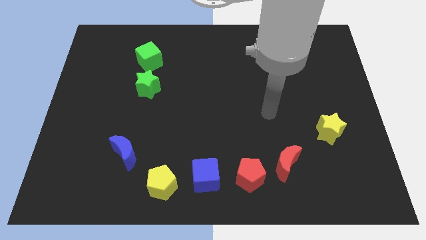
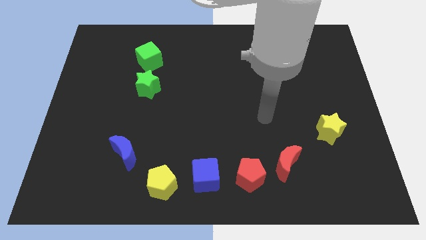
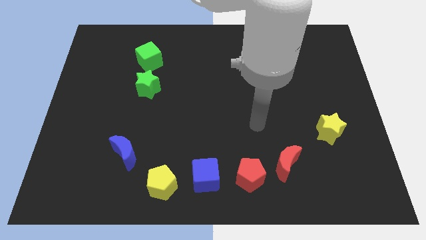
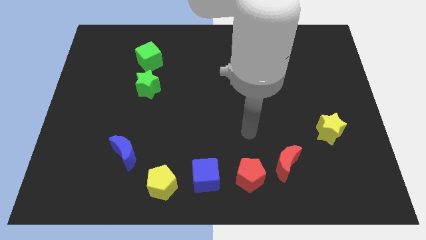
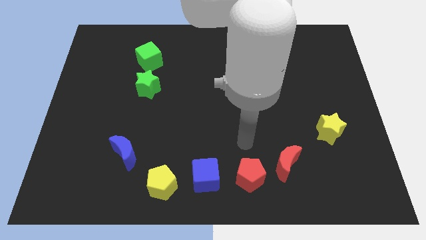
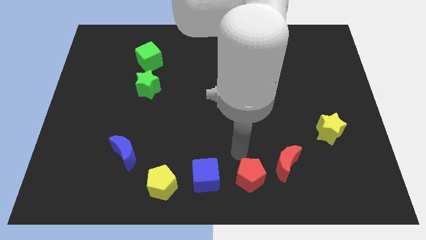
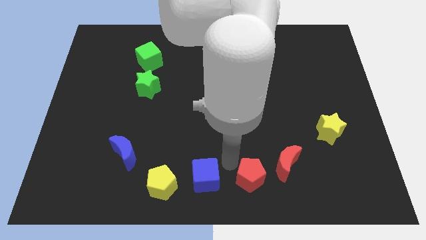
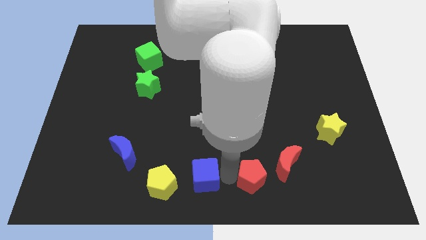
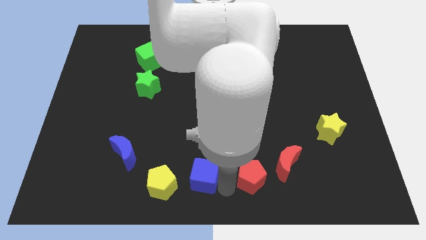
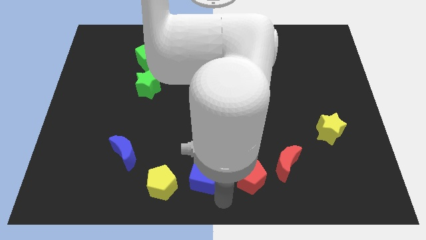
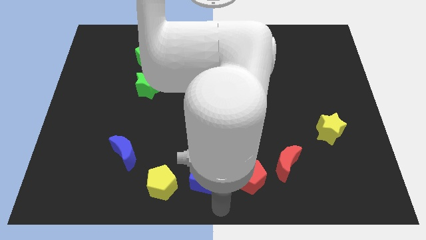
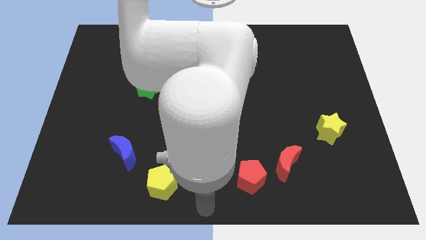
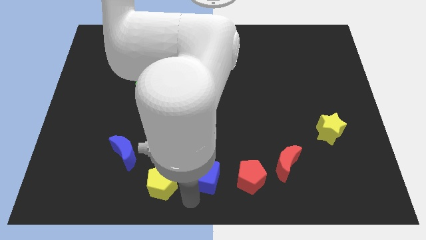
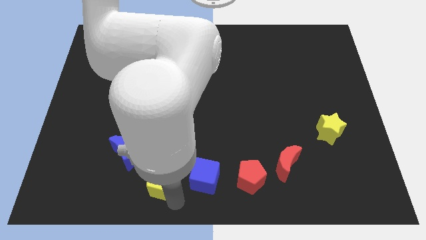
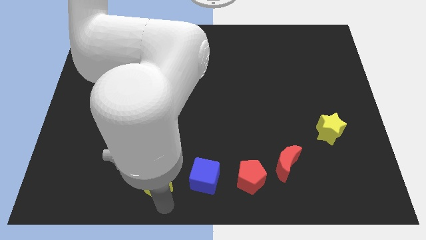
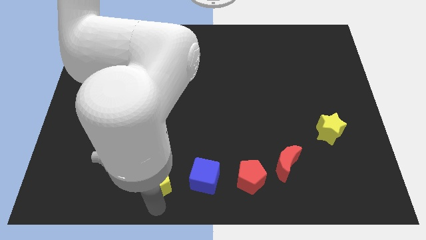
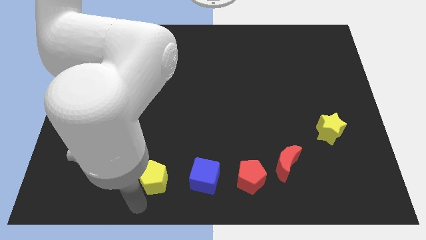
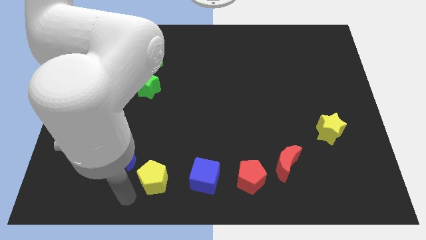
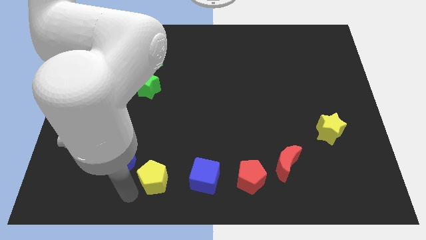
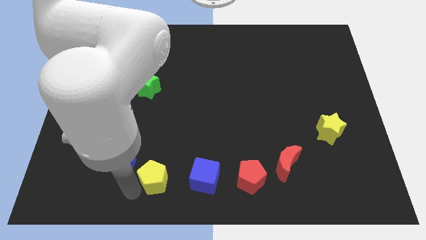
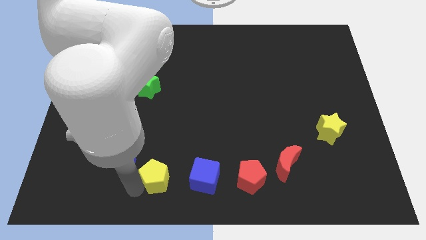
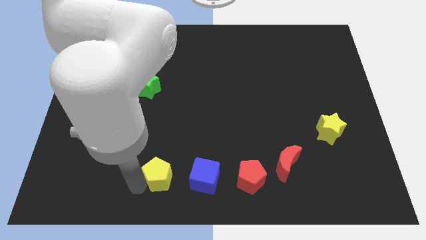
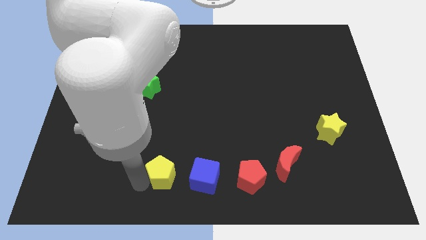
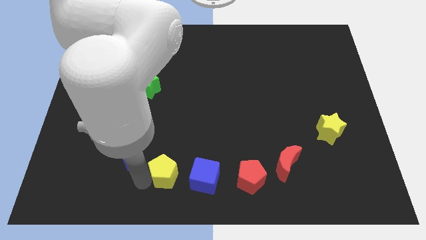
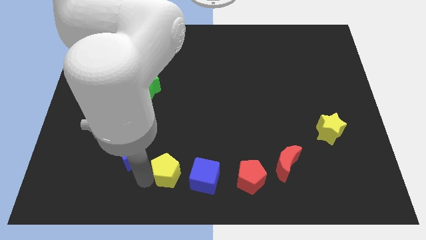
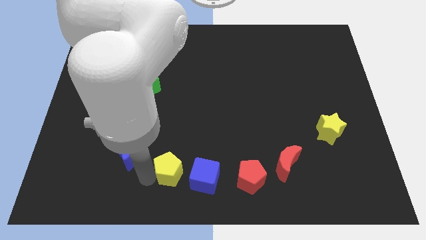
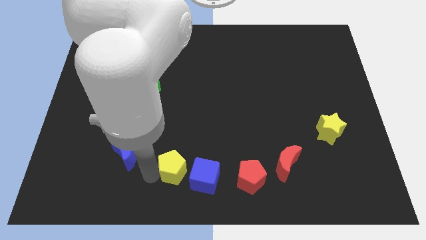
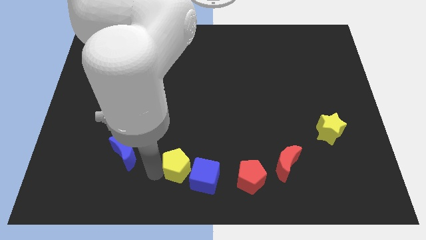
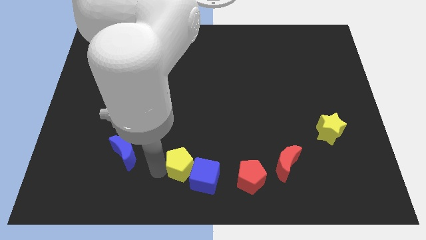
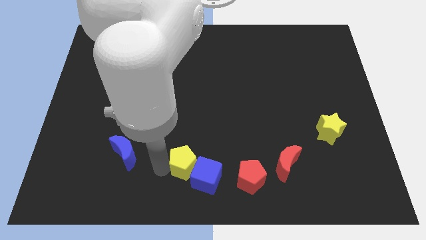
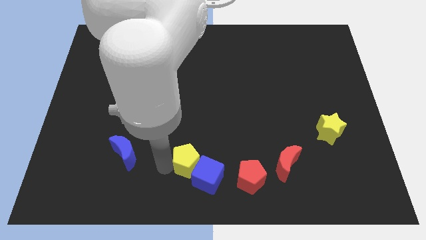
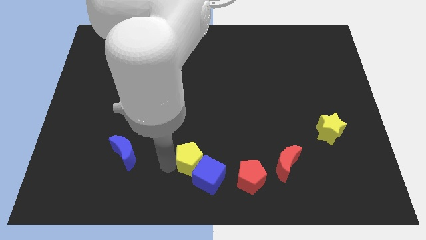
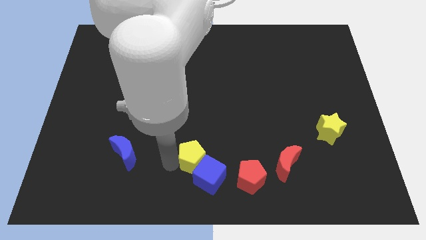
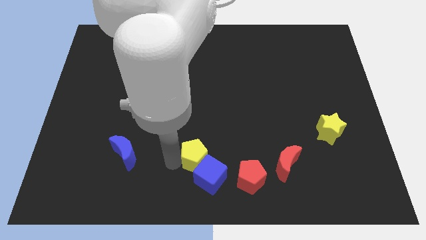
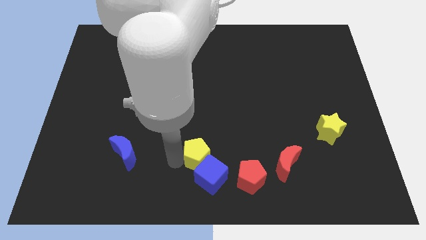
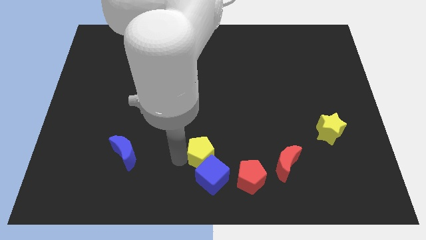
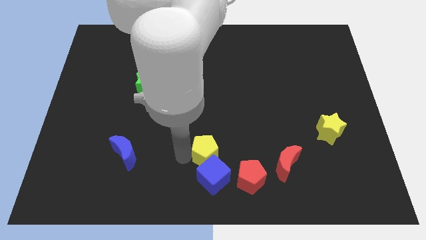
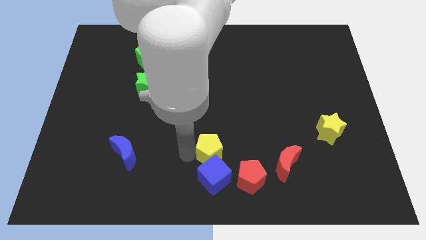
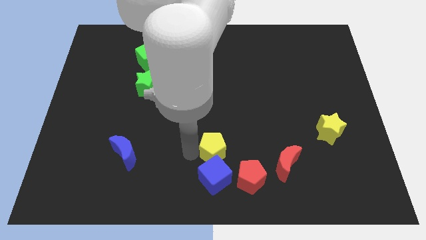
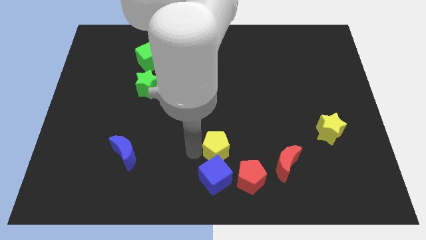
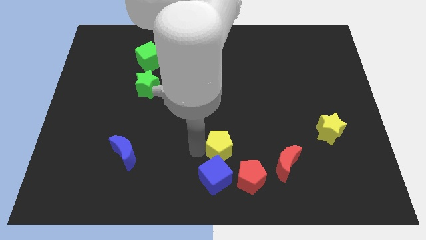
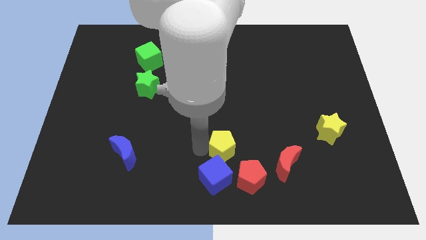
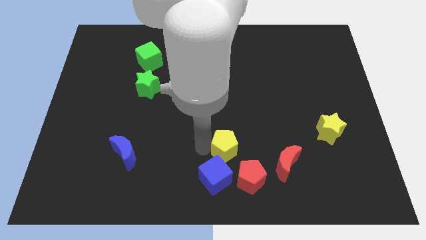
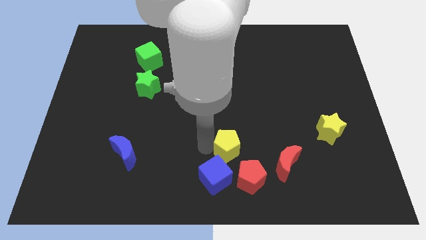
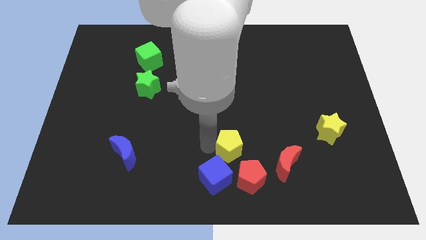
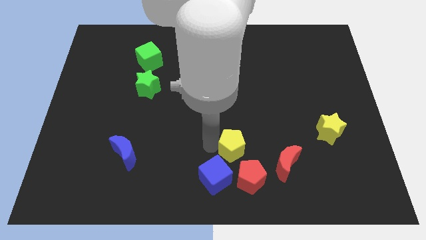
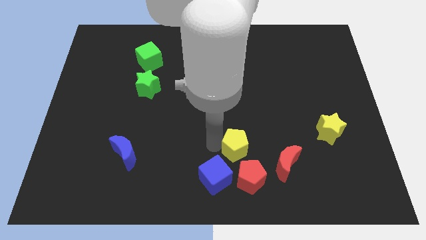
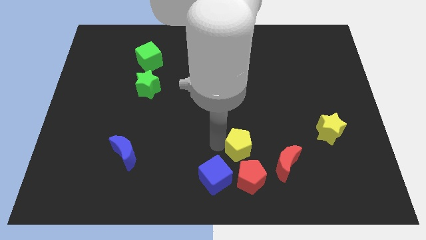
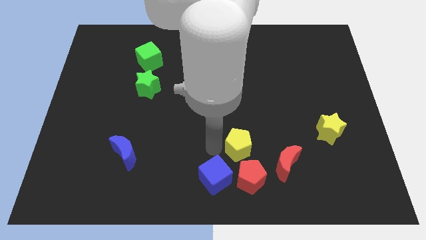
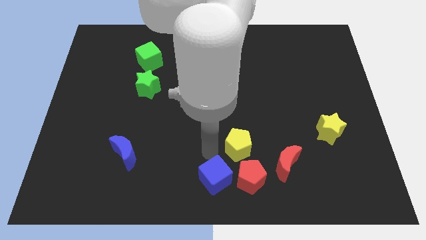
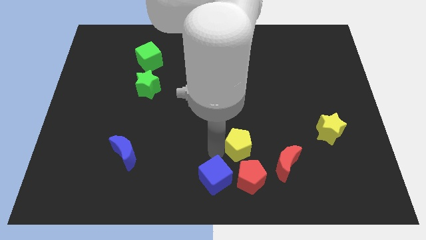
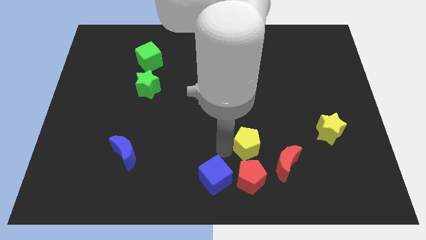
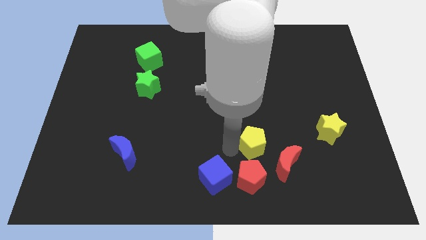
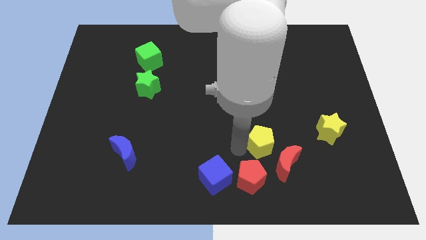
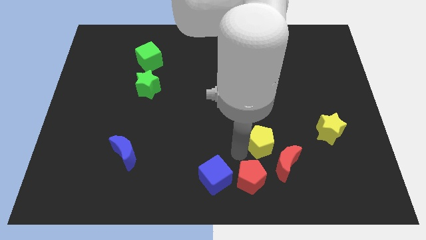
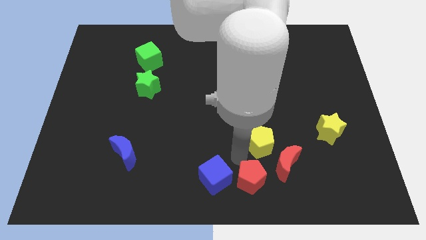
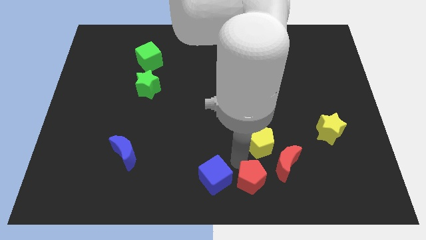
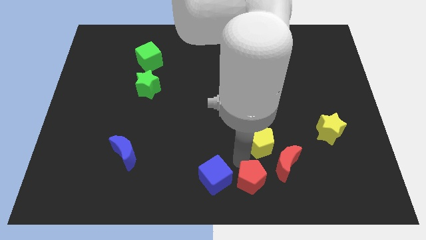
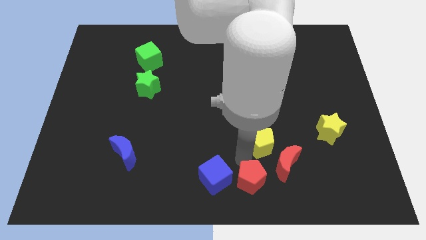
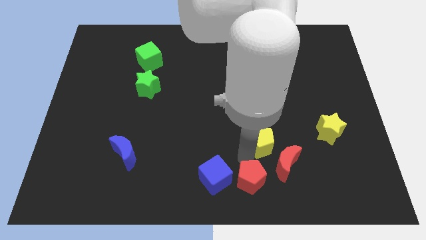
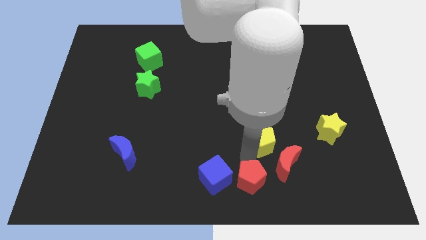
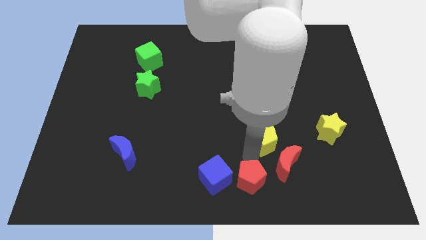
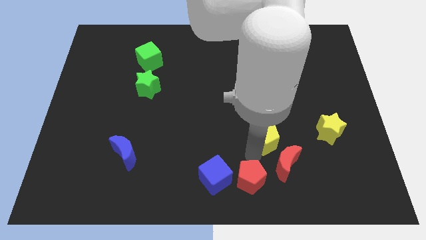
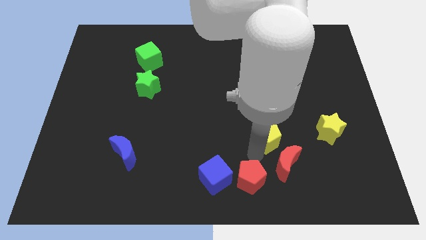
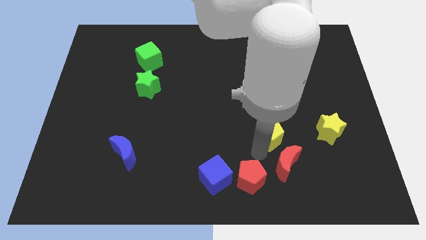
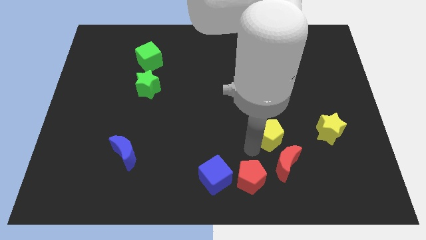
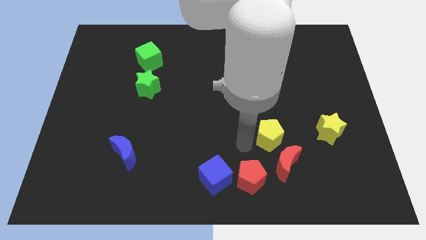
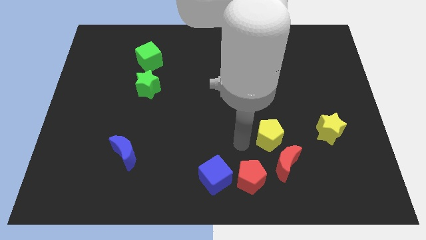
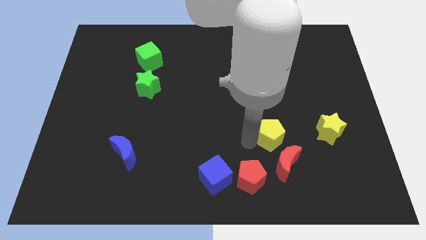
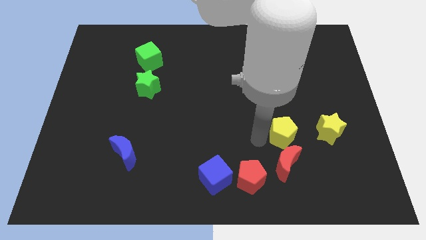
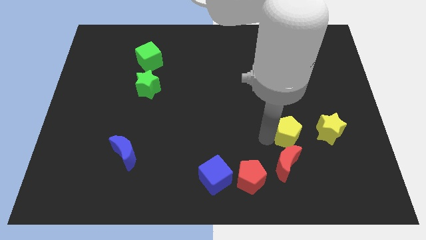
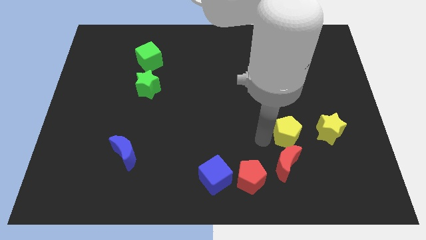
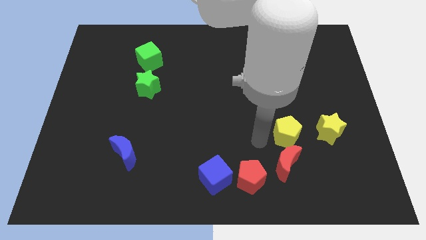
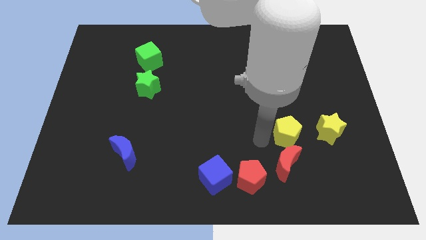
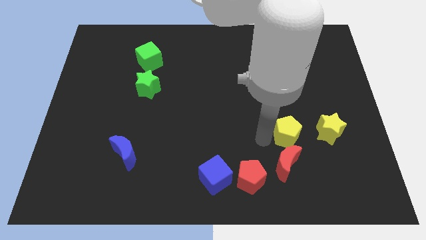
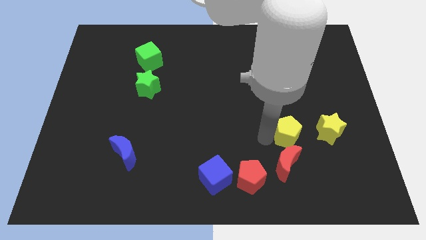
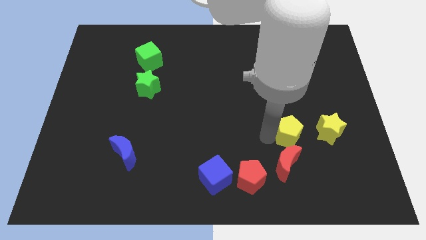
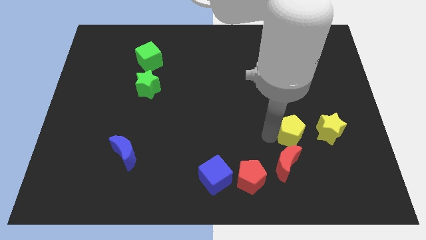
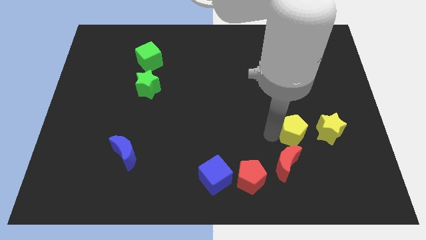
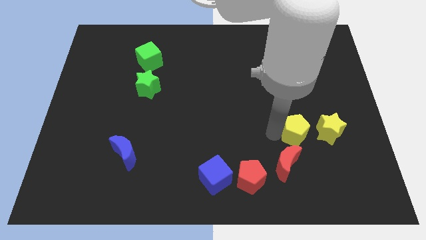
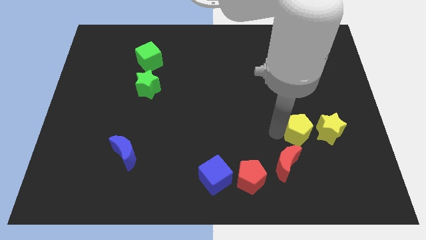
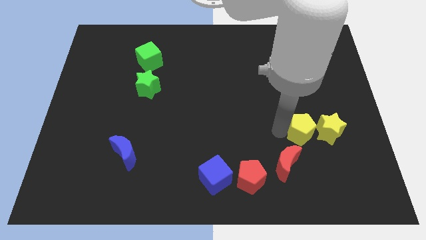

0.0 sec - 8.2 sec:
slide the yellow pentagon towards the yellow star
